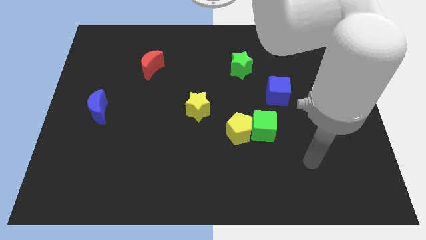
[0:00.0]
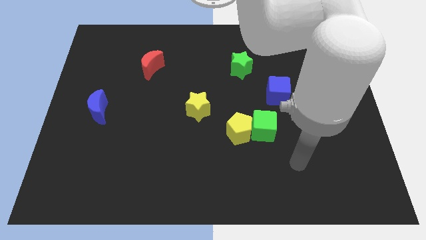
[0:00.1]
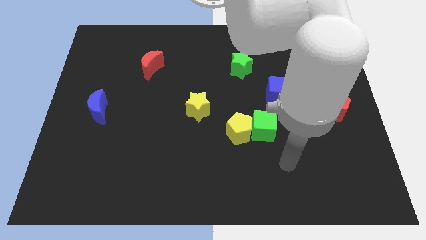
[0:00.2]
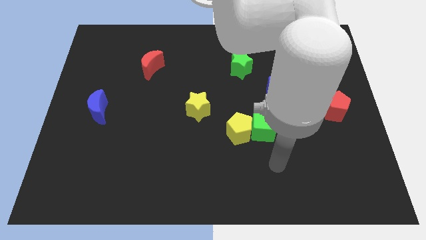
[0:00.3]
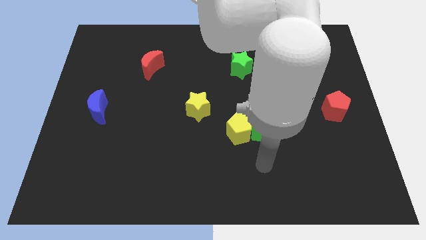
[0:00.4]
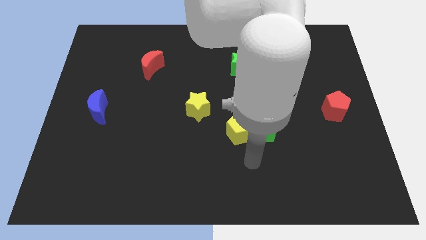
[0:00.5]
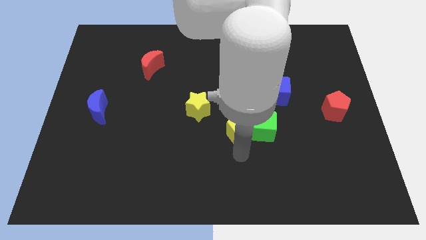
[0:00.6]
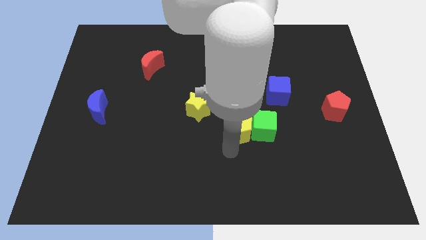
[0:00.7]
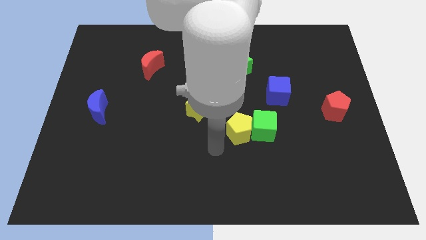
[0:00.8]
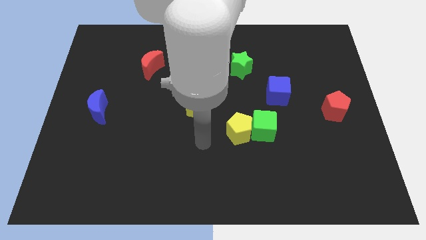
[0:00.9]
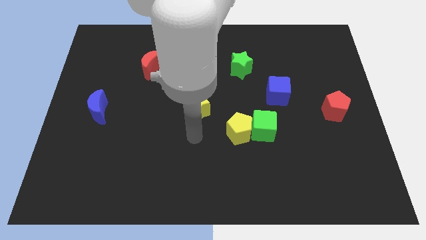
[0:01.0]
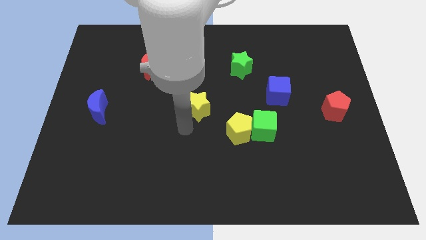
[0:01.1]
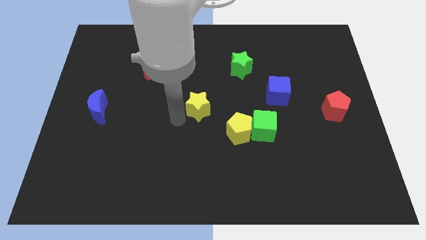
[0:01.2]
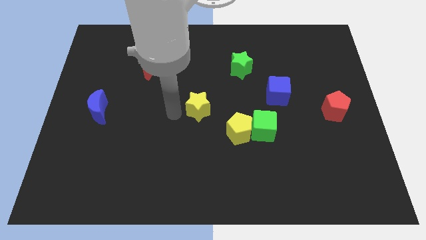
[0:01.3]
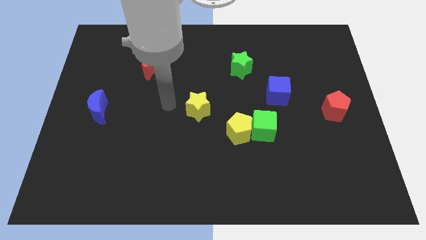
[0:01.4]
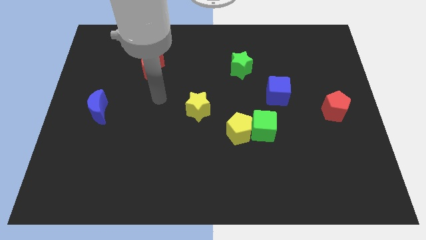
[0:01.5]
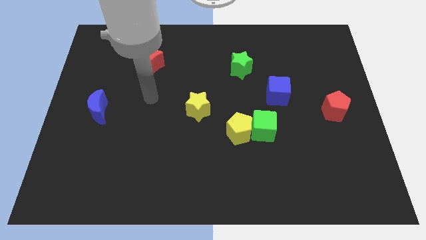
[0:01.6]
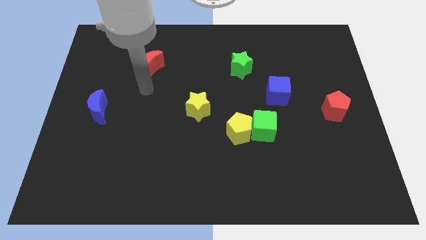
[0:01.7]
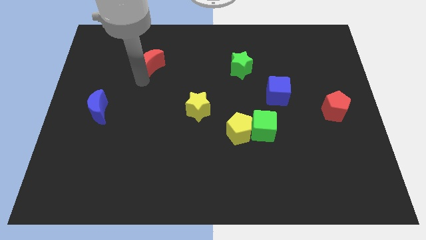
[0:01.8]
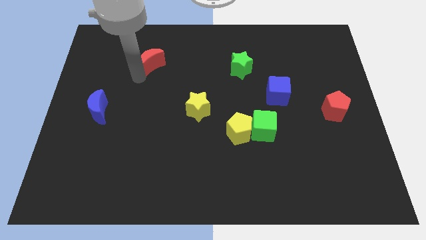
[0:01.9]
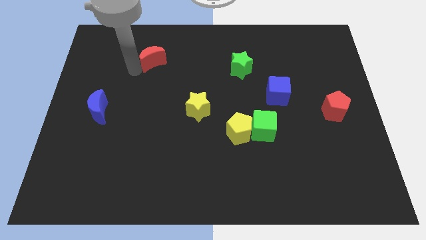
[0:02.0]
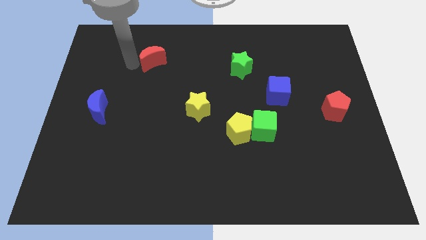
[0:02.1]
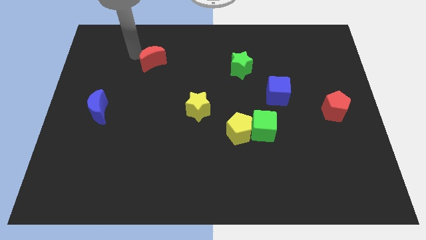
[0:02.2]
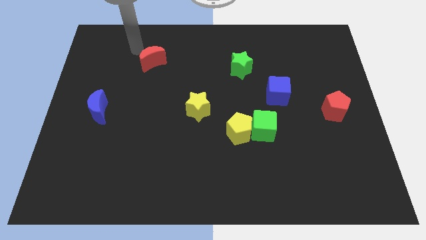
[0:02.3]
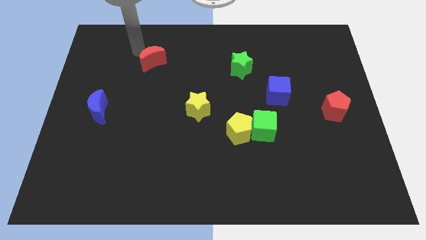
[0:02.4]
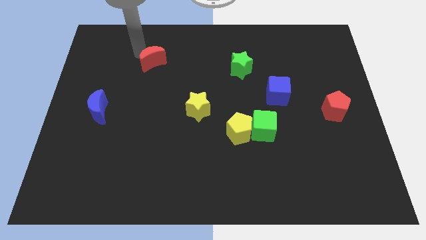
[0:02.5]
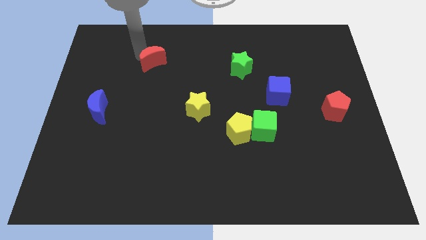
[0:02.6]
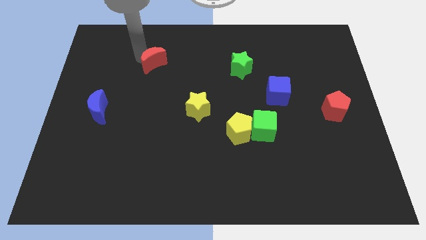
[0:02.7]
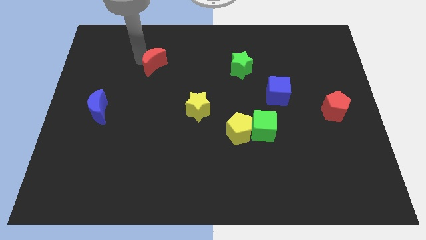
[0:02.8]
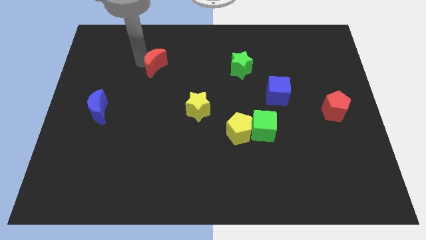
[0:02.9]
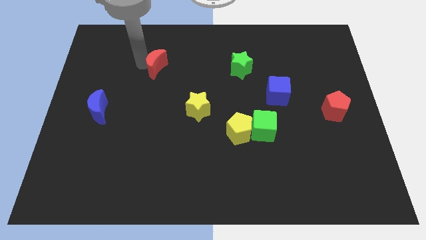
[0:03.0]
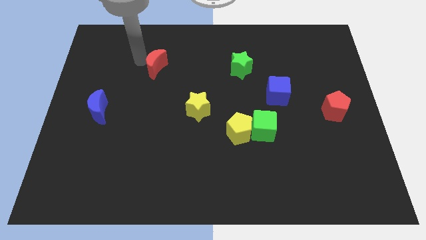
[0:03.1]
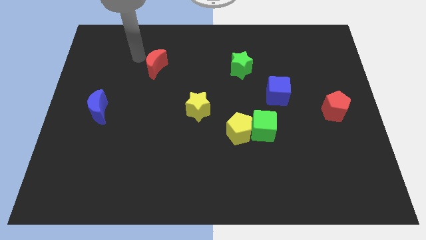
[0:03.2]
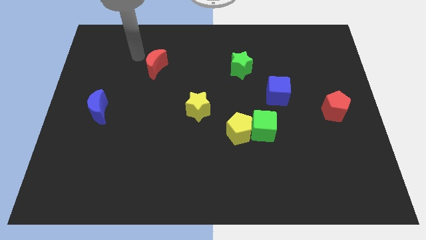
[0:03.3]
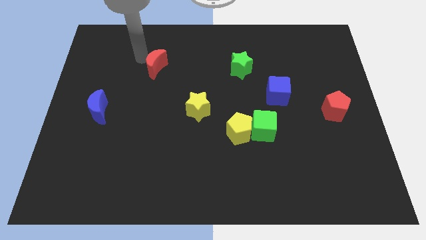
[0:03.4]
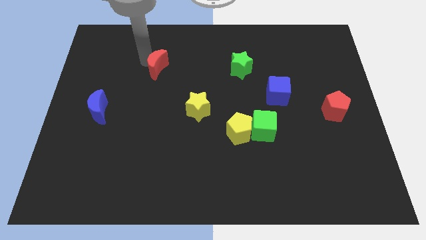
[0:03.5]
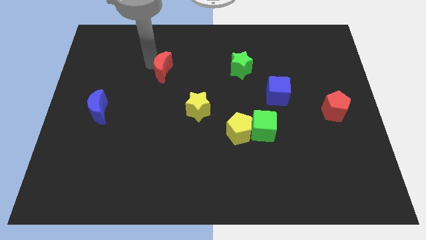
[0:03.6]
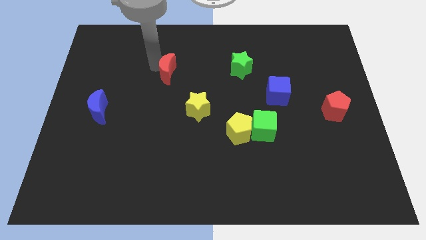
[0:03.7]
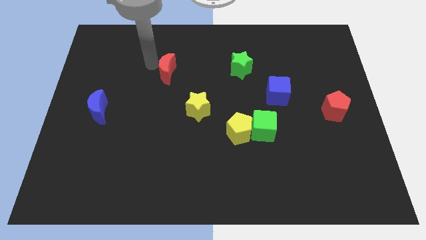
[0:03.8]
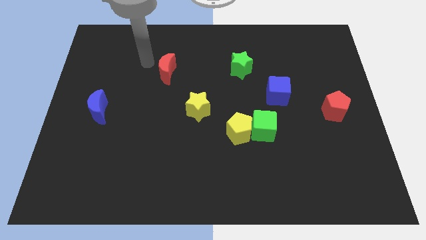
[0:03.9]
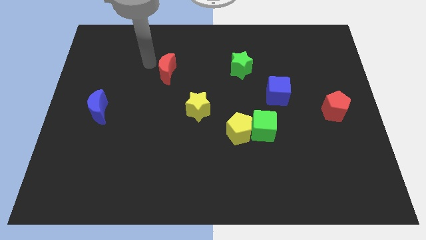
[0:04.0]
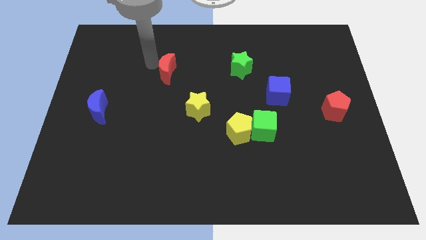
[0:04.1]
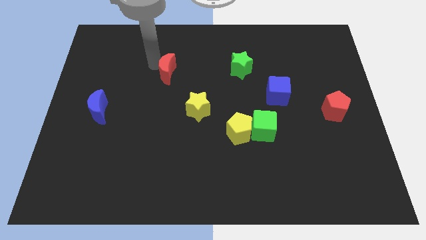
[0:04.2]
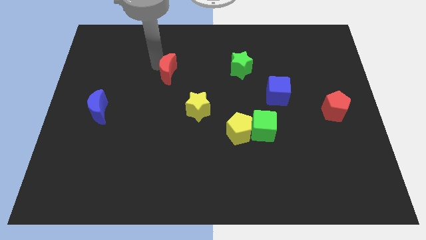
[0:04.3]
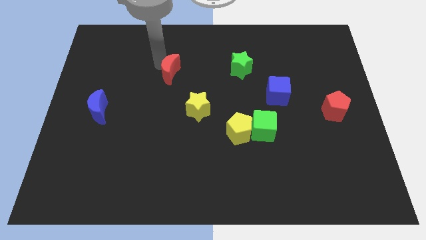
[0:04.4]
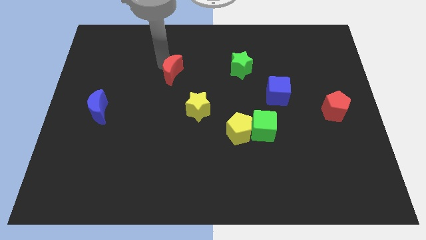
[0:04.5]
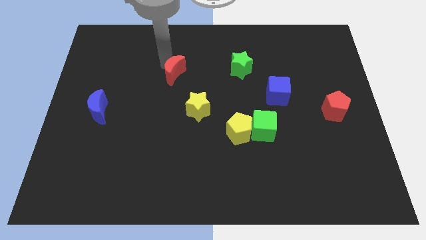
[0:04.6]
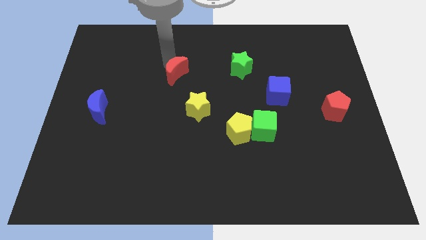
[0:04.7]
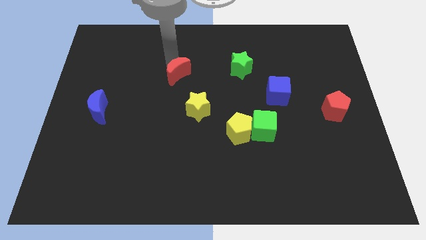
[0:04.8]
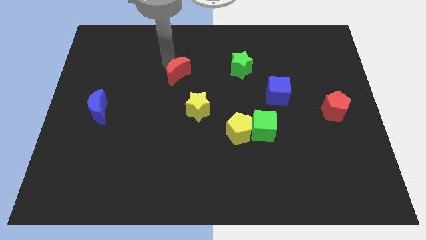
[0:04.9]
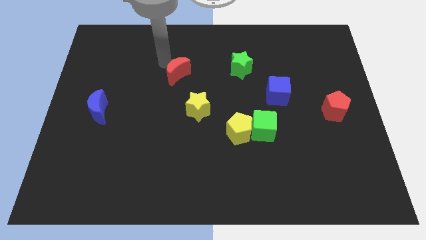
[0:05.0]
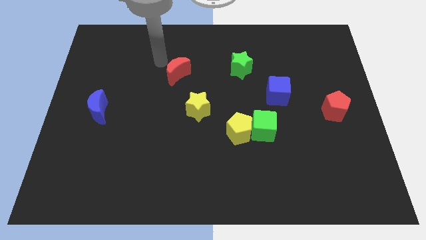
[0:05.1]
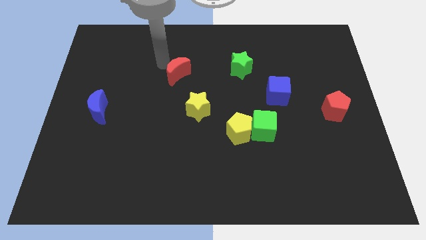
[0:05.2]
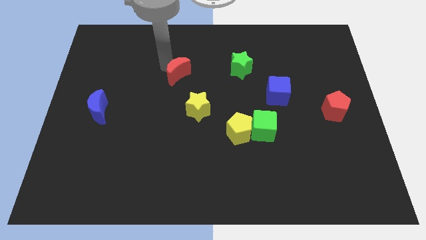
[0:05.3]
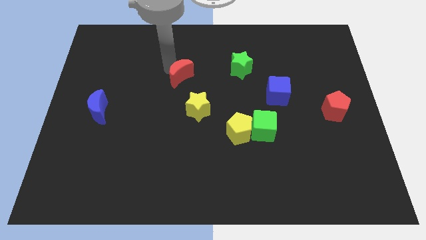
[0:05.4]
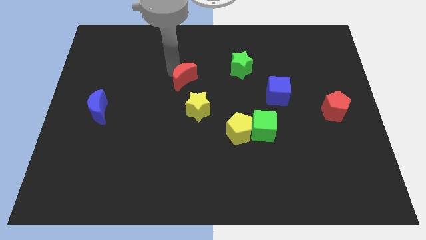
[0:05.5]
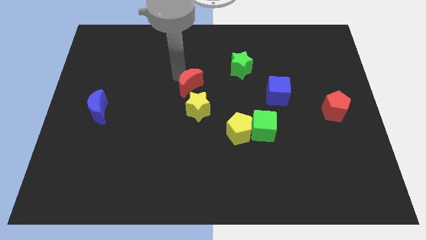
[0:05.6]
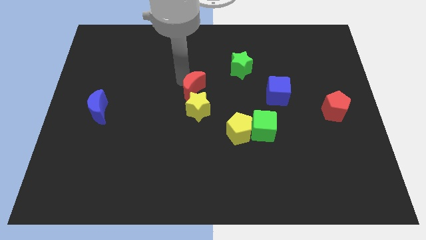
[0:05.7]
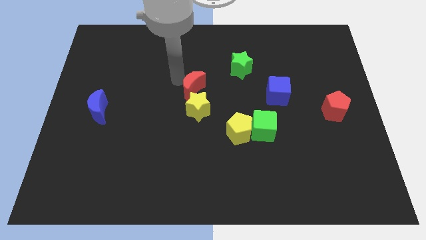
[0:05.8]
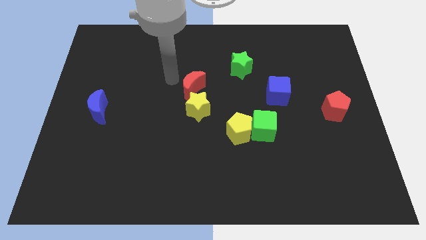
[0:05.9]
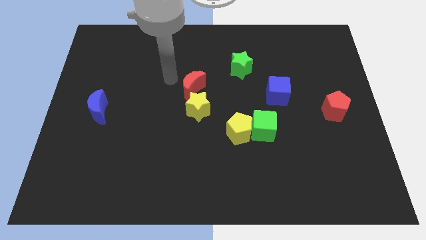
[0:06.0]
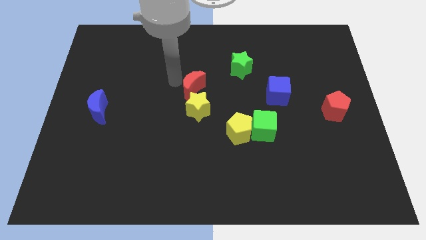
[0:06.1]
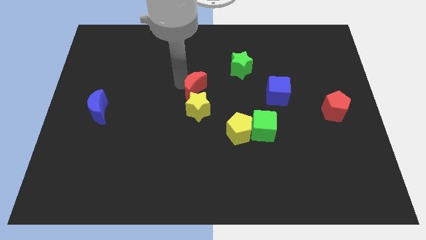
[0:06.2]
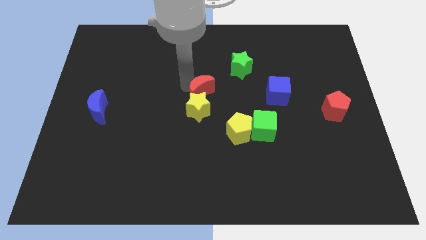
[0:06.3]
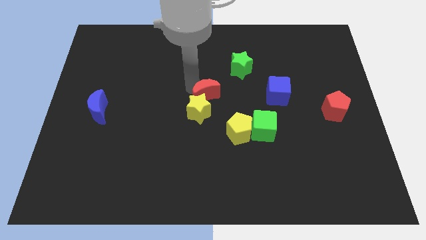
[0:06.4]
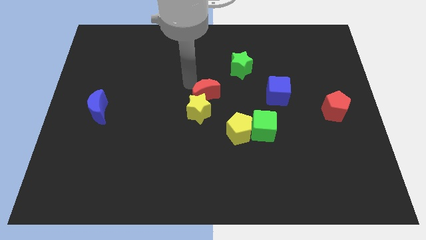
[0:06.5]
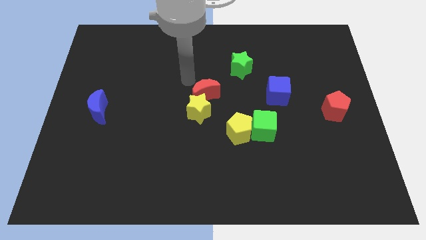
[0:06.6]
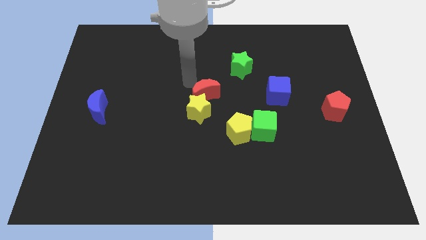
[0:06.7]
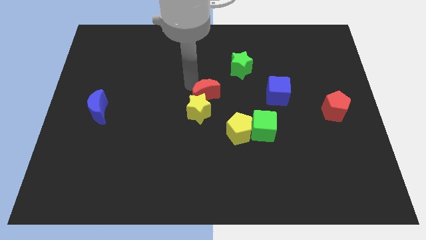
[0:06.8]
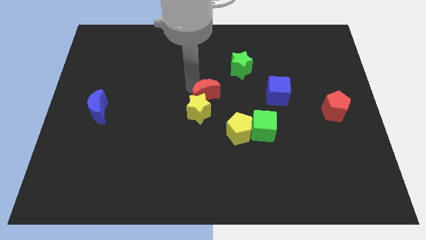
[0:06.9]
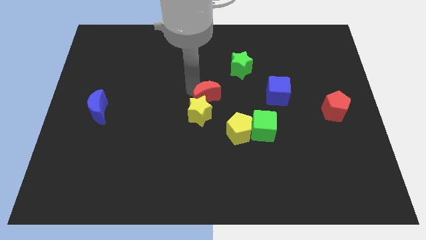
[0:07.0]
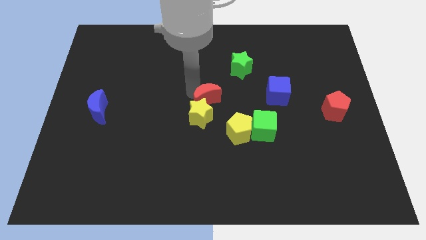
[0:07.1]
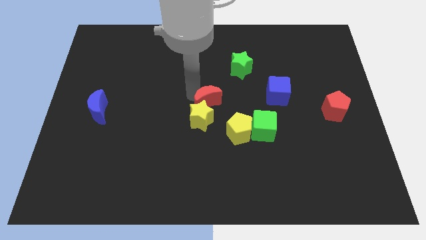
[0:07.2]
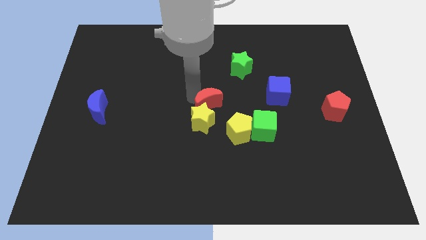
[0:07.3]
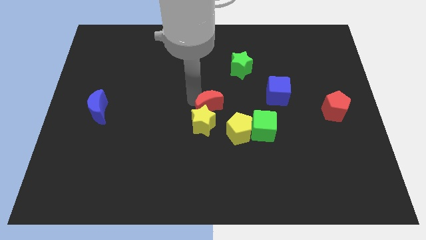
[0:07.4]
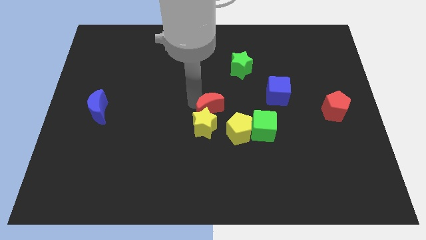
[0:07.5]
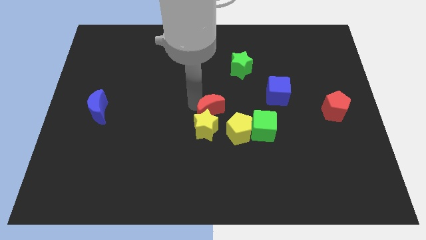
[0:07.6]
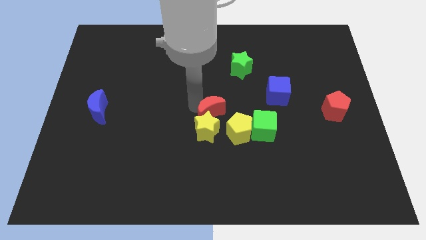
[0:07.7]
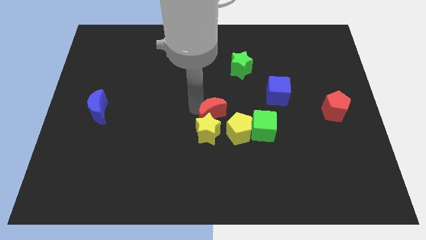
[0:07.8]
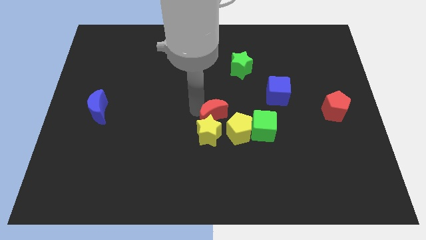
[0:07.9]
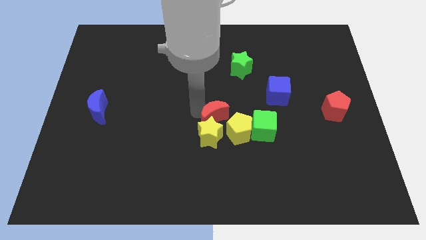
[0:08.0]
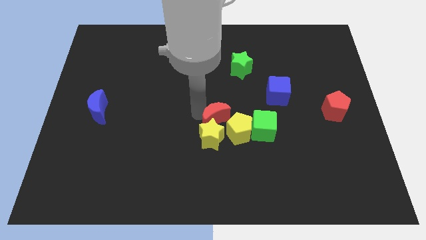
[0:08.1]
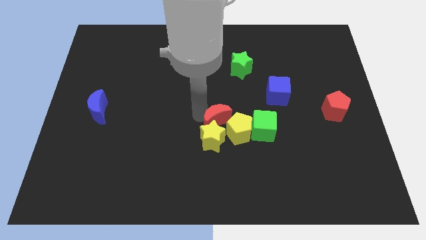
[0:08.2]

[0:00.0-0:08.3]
push the red moon next to the yellow pentagon
